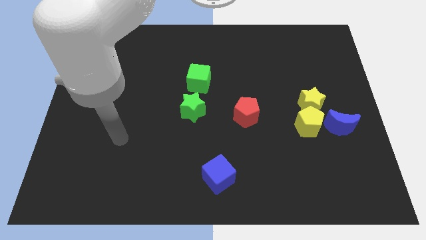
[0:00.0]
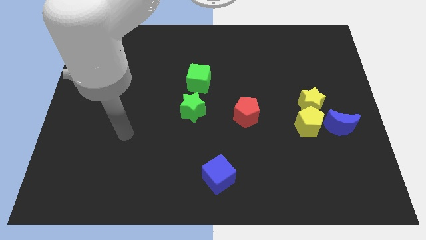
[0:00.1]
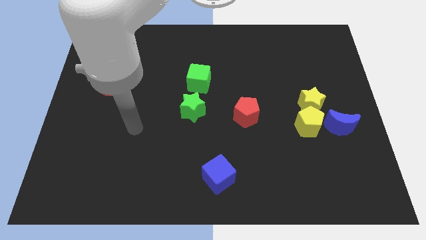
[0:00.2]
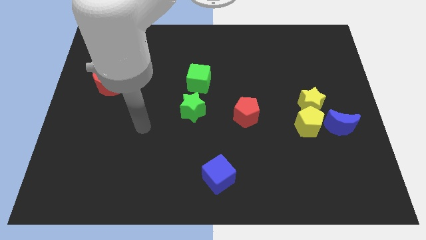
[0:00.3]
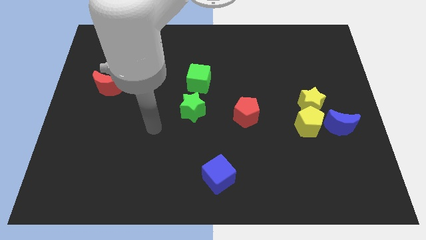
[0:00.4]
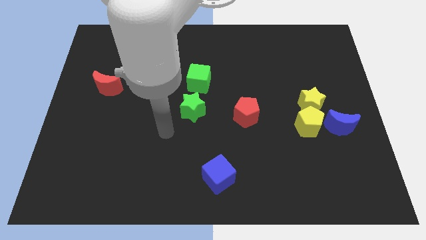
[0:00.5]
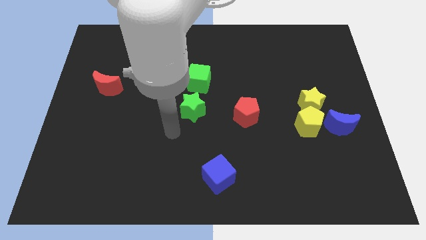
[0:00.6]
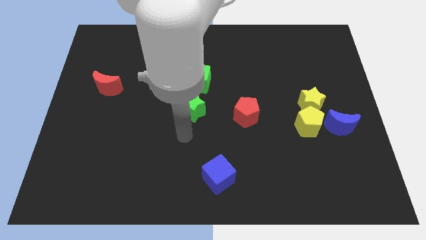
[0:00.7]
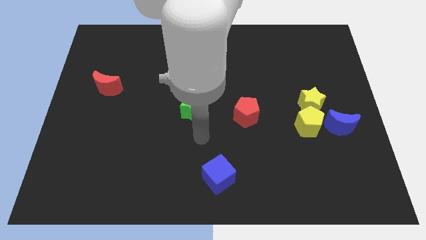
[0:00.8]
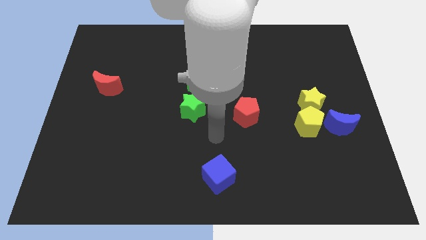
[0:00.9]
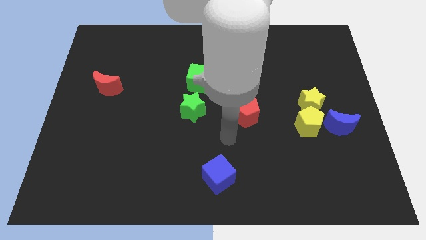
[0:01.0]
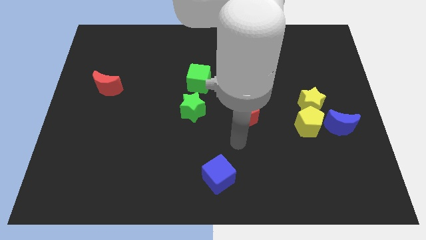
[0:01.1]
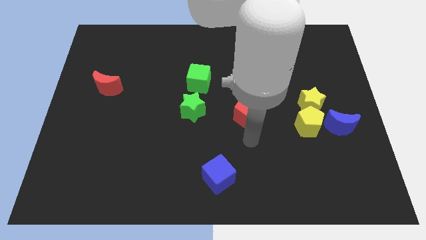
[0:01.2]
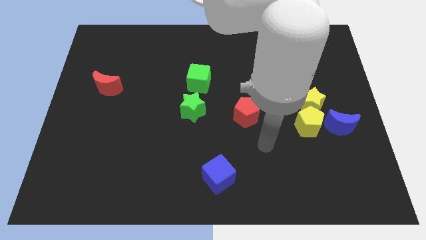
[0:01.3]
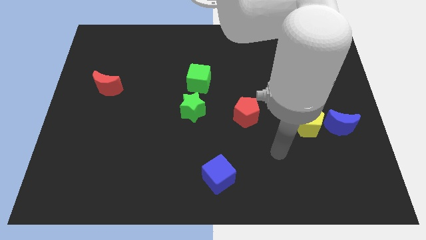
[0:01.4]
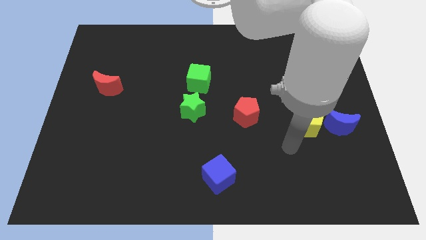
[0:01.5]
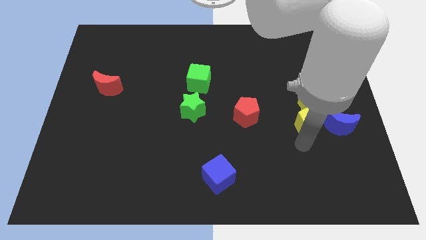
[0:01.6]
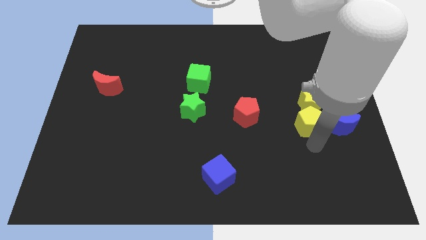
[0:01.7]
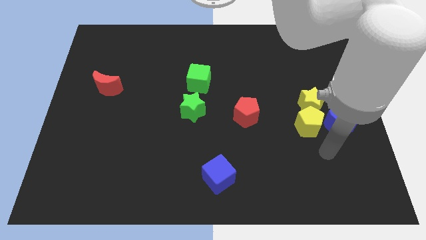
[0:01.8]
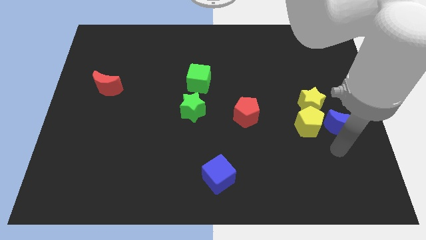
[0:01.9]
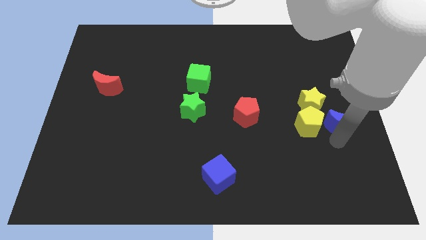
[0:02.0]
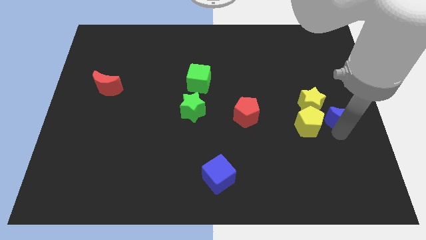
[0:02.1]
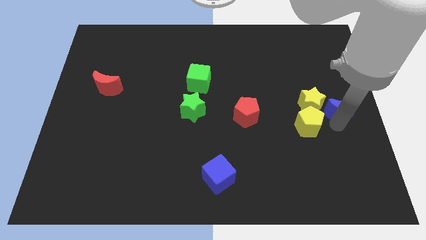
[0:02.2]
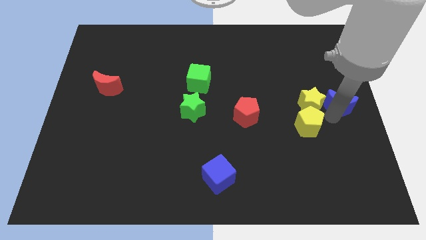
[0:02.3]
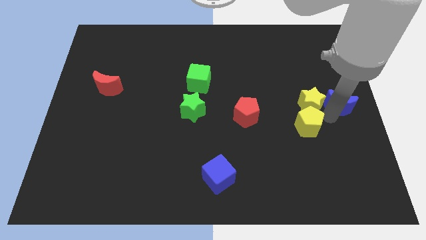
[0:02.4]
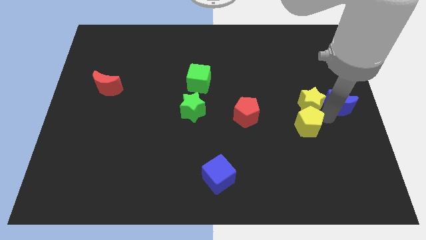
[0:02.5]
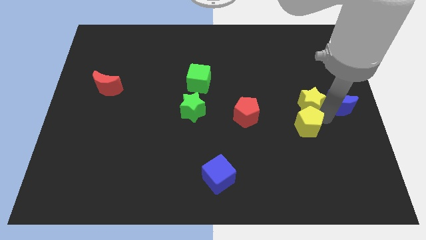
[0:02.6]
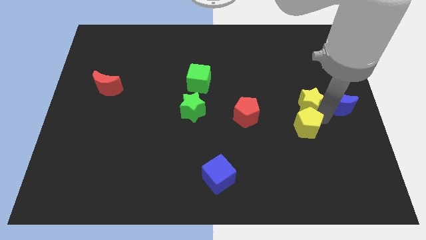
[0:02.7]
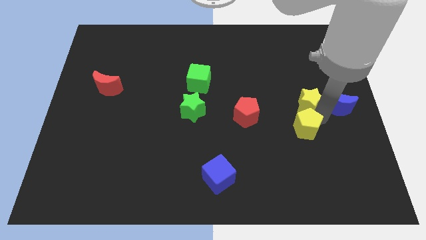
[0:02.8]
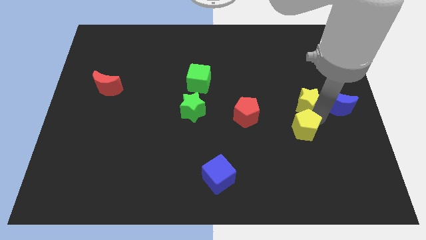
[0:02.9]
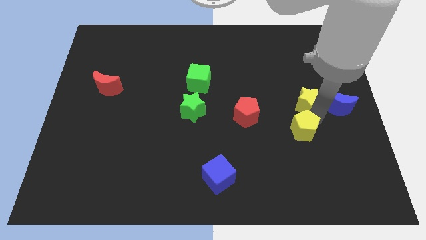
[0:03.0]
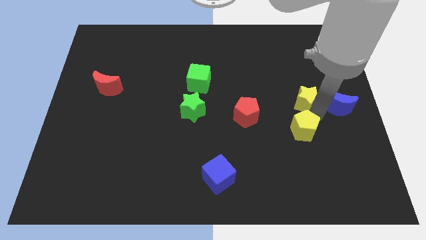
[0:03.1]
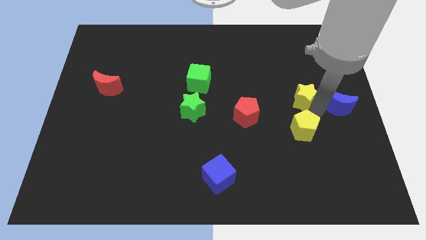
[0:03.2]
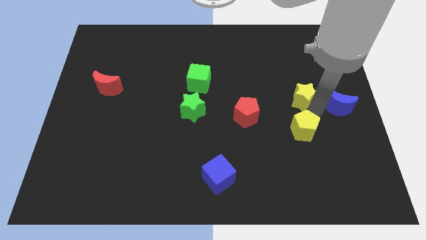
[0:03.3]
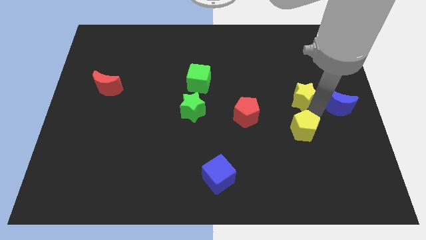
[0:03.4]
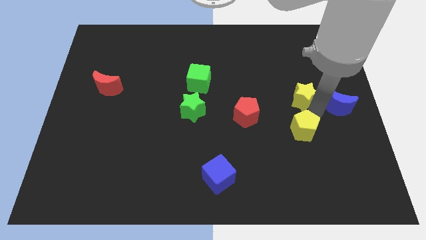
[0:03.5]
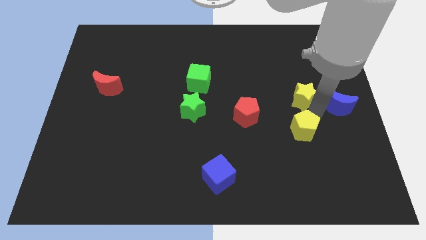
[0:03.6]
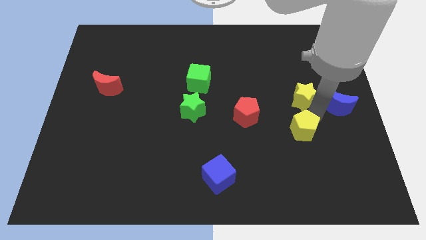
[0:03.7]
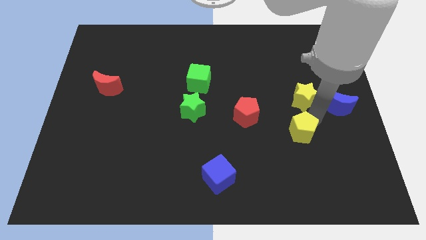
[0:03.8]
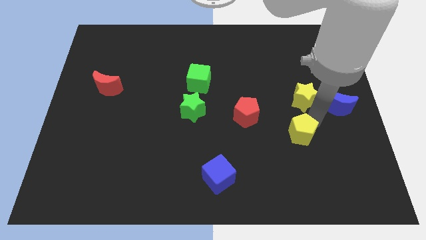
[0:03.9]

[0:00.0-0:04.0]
pull the yellow pentagon apart from the yellow star and blue moon

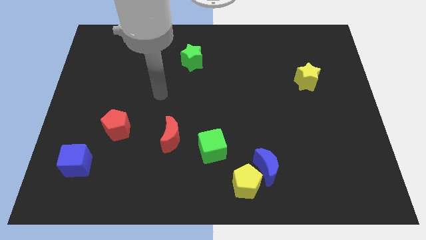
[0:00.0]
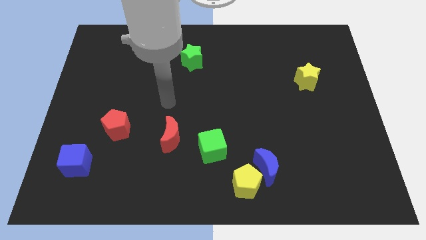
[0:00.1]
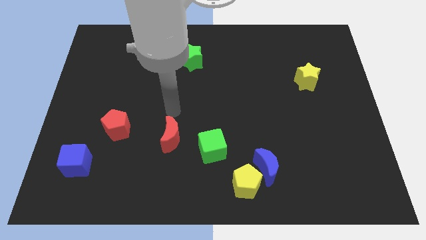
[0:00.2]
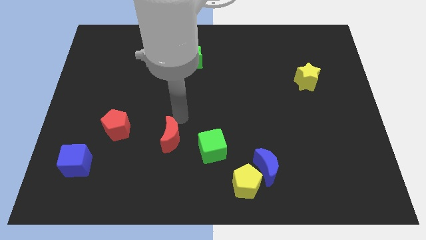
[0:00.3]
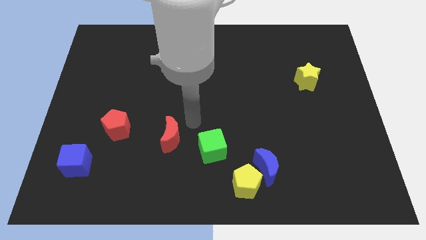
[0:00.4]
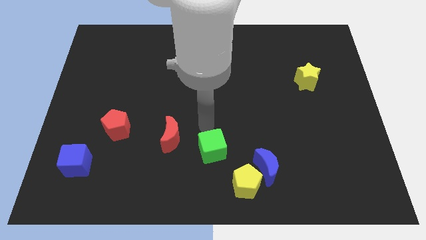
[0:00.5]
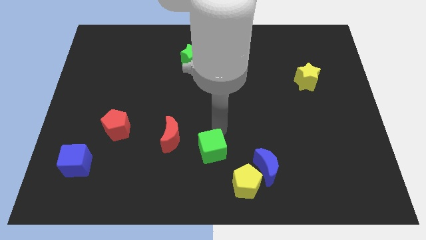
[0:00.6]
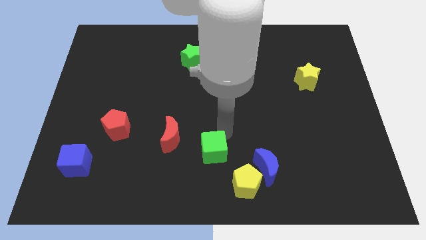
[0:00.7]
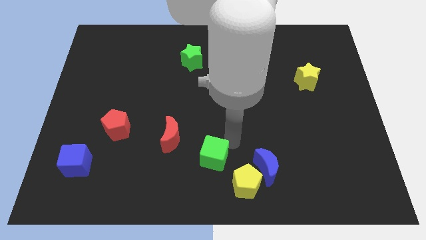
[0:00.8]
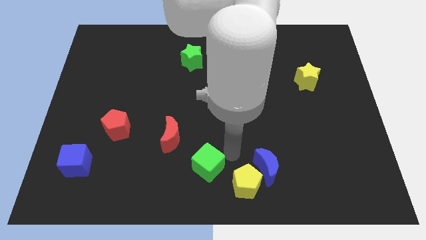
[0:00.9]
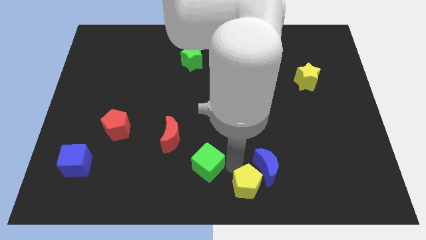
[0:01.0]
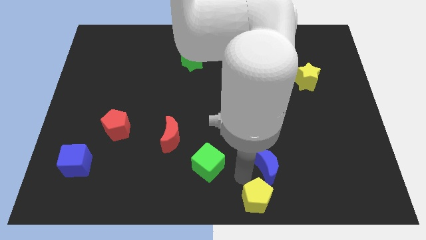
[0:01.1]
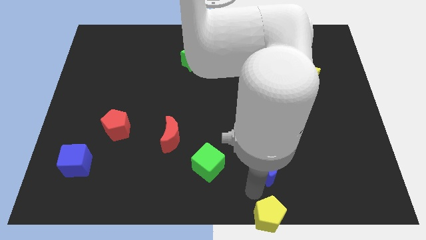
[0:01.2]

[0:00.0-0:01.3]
separate the blue moon from the yellow pentagon

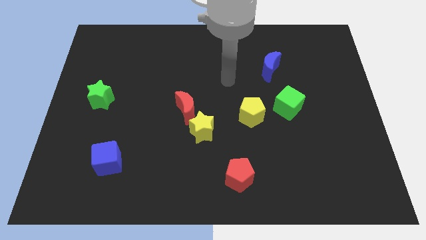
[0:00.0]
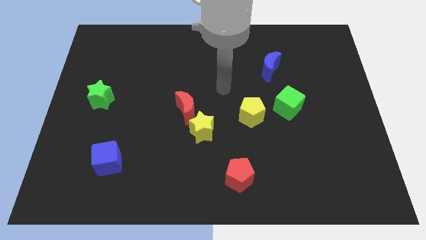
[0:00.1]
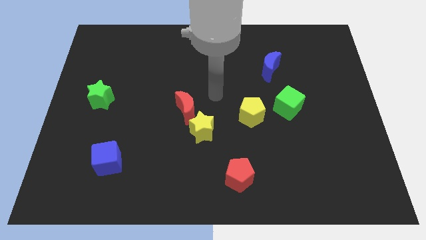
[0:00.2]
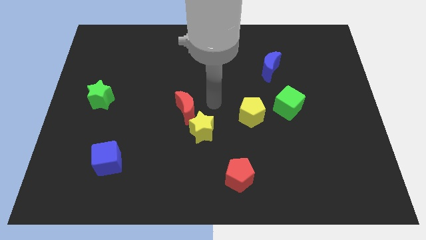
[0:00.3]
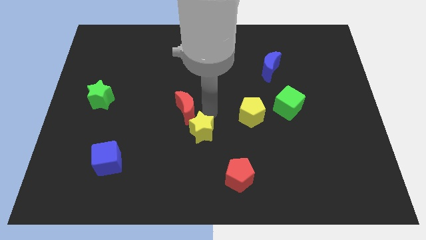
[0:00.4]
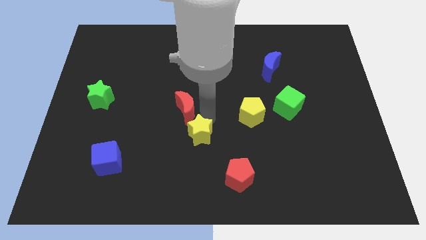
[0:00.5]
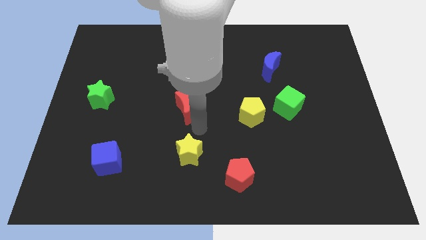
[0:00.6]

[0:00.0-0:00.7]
pull the red moon apart from the yellow star

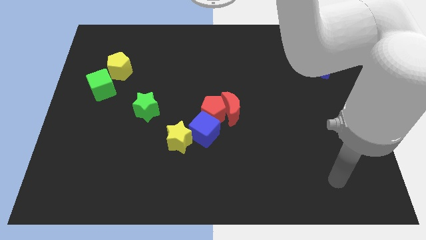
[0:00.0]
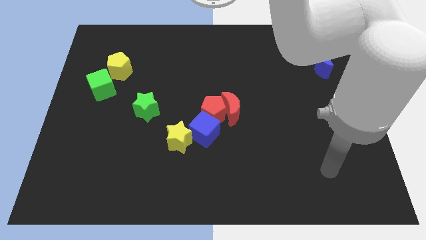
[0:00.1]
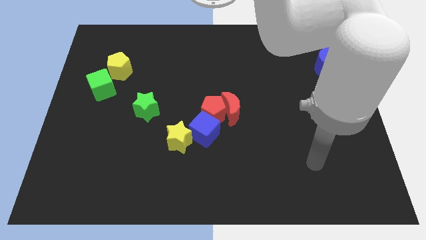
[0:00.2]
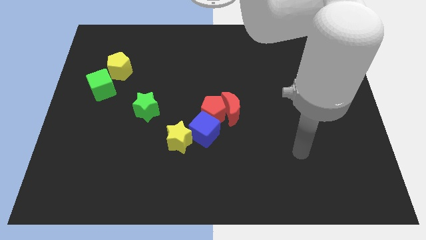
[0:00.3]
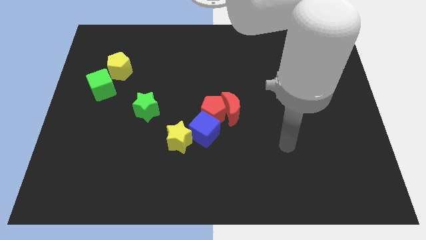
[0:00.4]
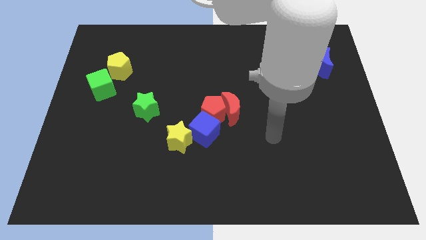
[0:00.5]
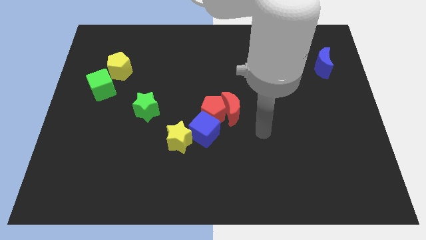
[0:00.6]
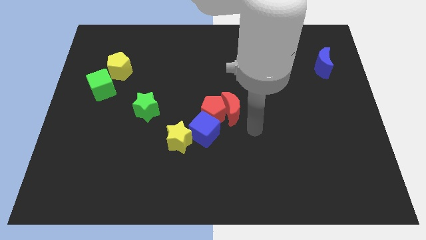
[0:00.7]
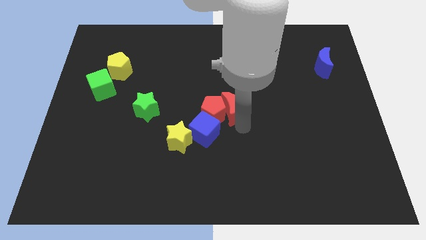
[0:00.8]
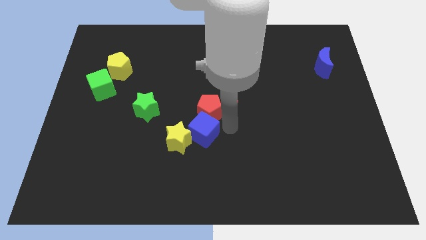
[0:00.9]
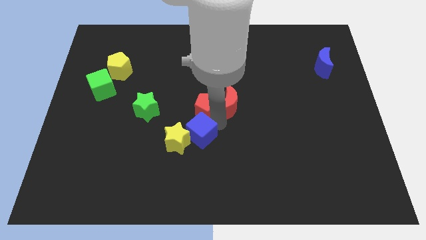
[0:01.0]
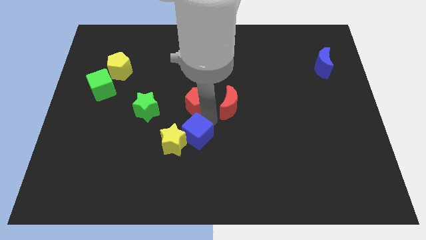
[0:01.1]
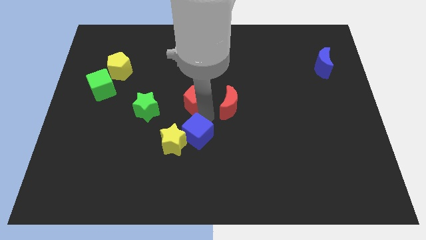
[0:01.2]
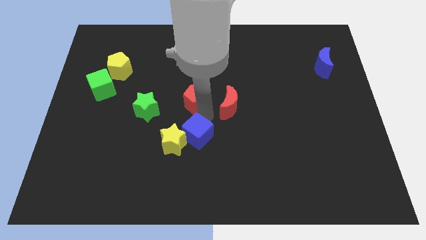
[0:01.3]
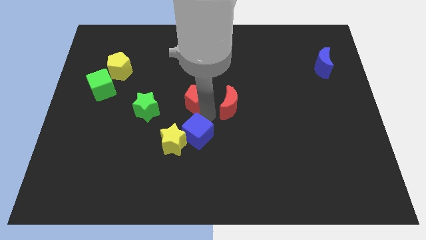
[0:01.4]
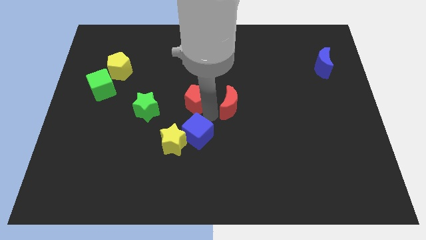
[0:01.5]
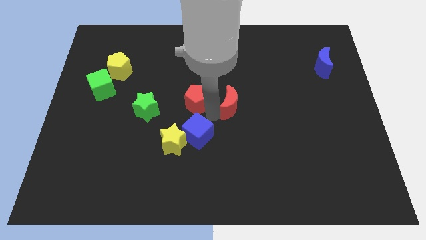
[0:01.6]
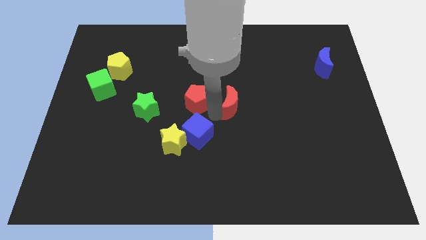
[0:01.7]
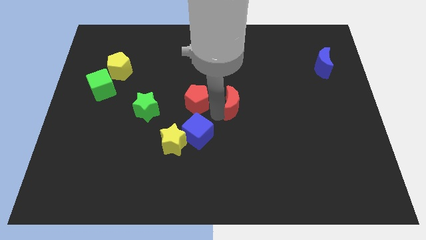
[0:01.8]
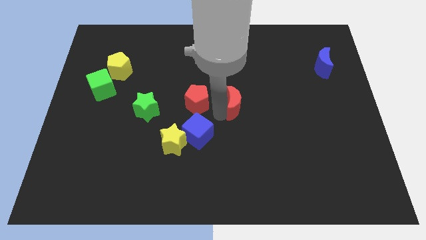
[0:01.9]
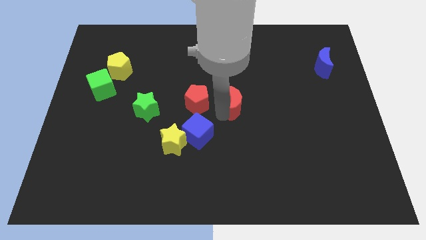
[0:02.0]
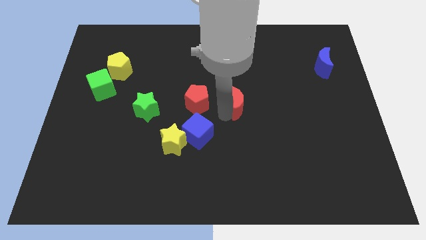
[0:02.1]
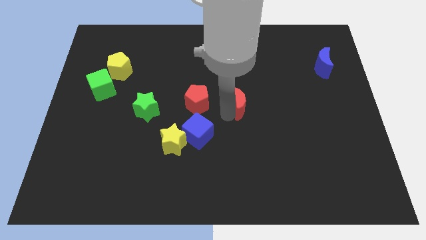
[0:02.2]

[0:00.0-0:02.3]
separate the red moon from the red pentagon and blue cube

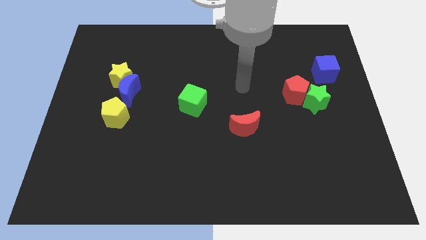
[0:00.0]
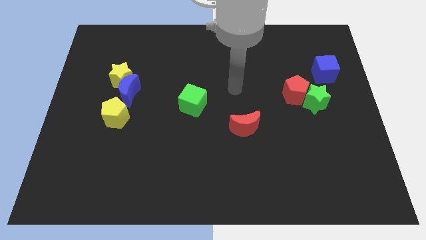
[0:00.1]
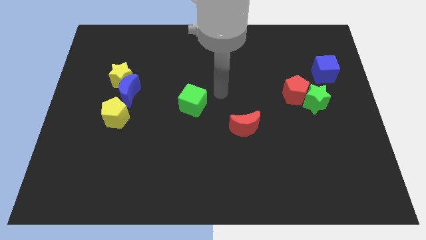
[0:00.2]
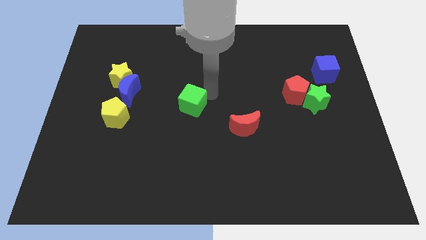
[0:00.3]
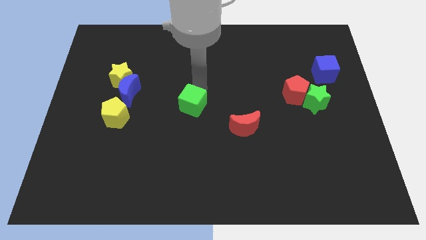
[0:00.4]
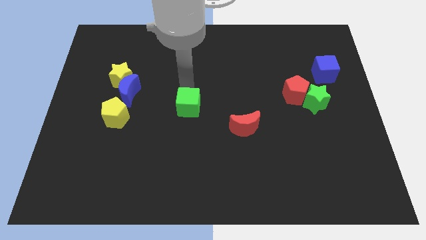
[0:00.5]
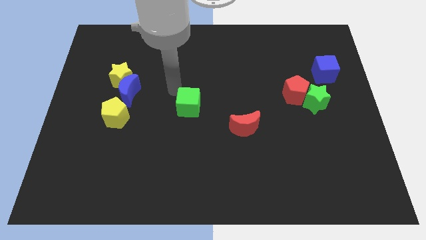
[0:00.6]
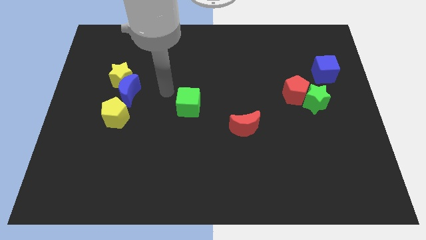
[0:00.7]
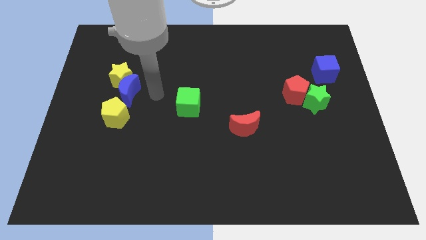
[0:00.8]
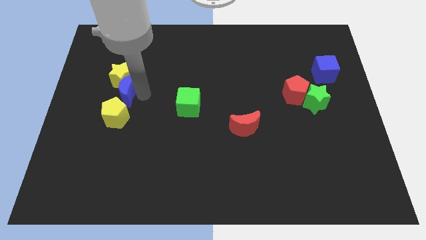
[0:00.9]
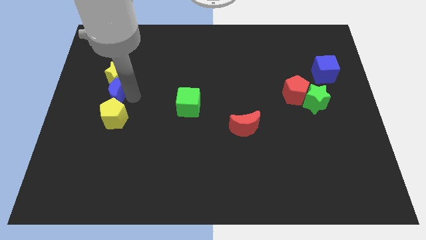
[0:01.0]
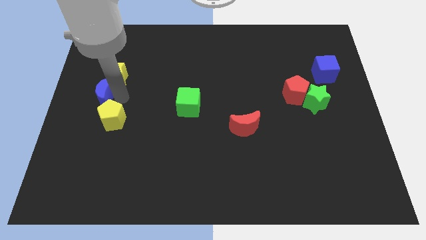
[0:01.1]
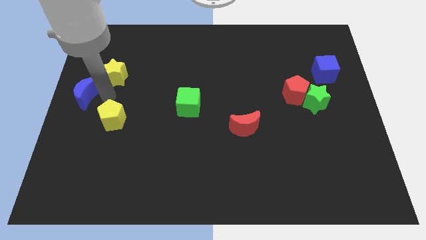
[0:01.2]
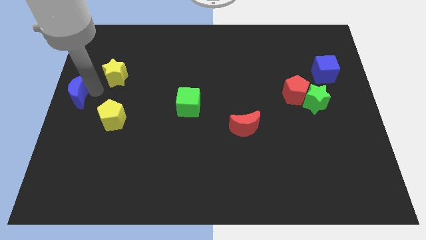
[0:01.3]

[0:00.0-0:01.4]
pull the yellow star apart from the blue moon
